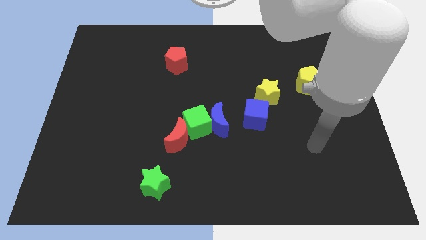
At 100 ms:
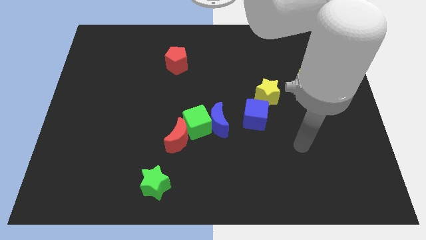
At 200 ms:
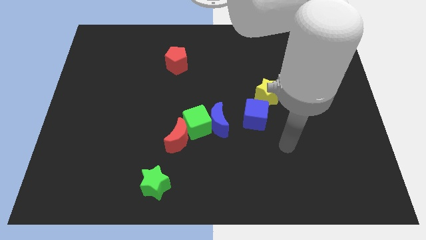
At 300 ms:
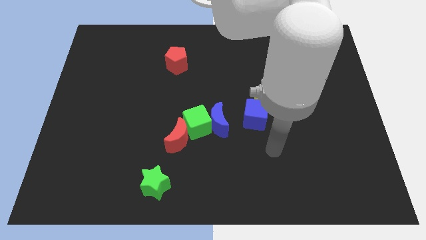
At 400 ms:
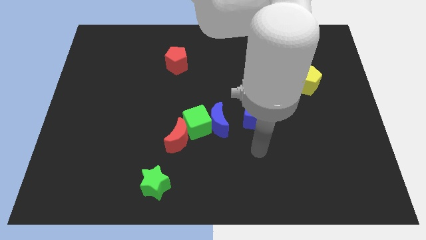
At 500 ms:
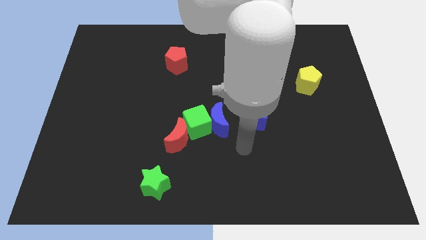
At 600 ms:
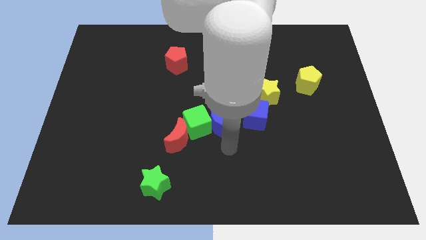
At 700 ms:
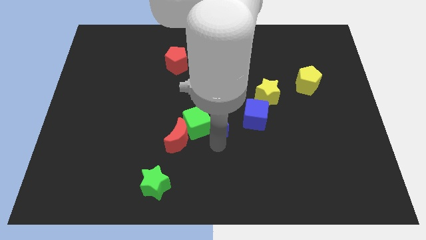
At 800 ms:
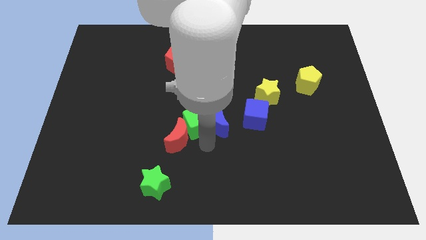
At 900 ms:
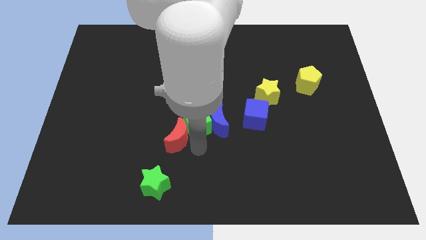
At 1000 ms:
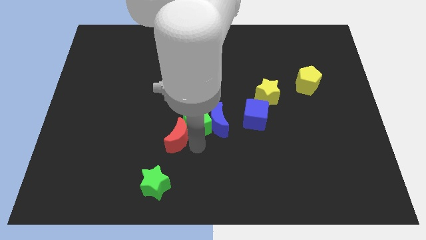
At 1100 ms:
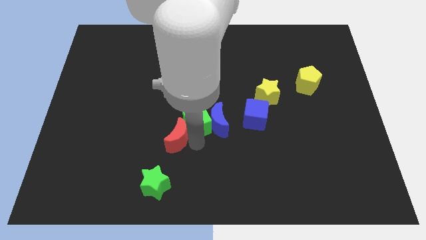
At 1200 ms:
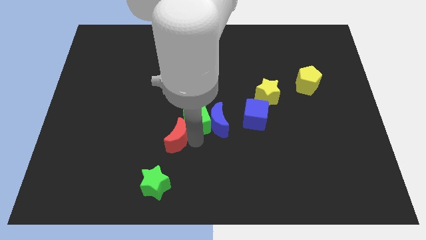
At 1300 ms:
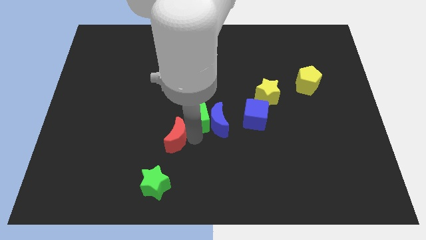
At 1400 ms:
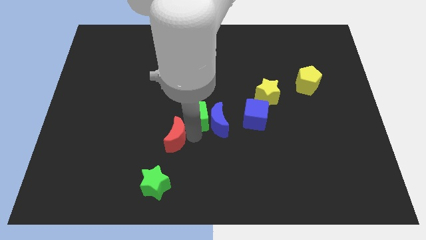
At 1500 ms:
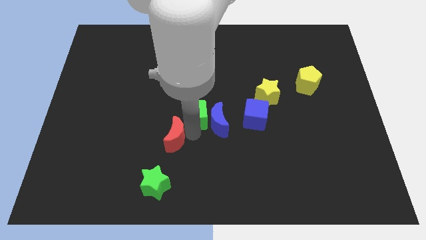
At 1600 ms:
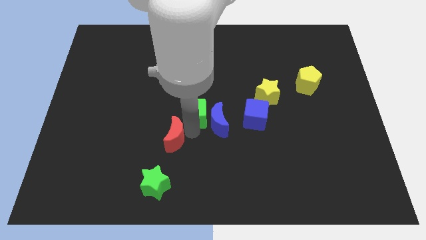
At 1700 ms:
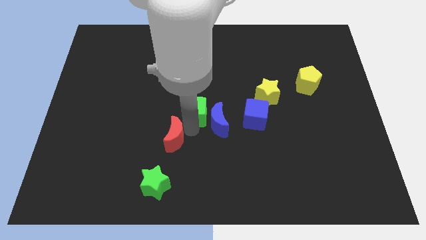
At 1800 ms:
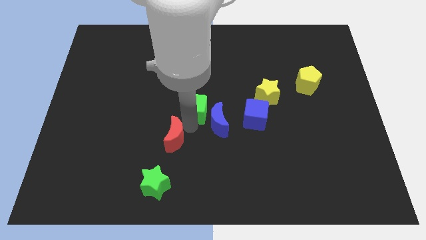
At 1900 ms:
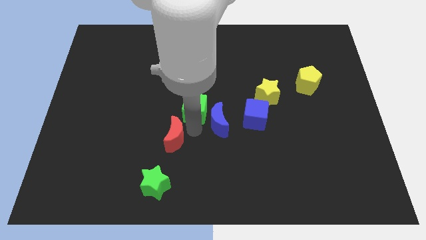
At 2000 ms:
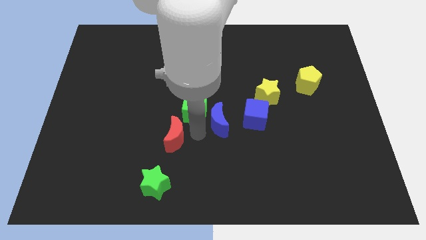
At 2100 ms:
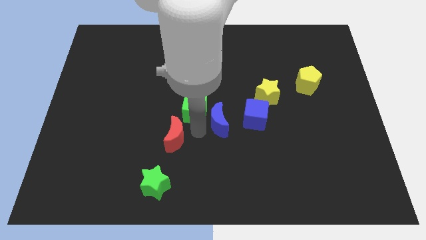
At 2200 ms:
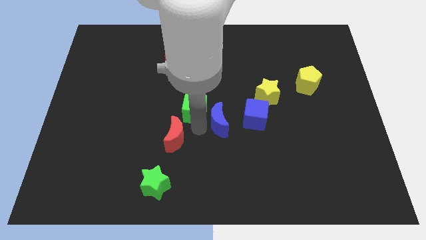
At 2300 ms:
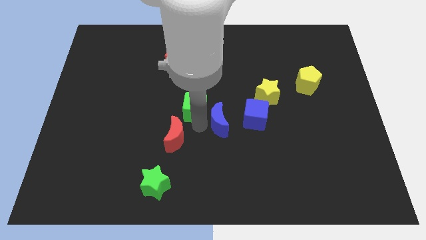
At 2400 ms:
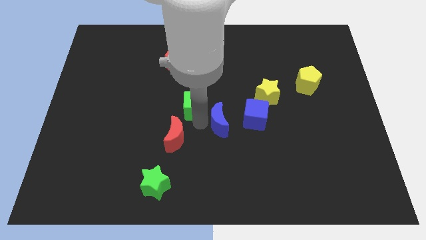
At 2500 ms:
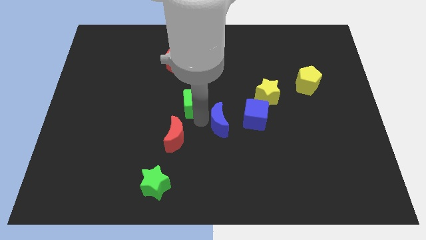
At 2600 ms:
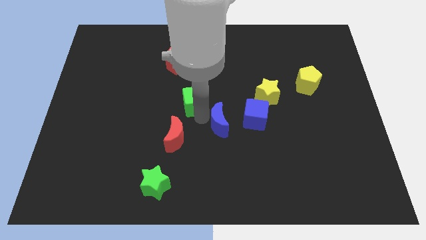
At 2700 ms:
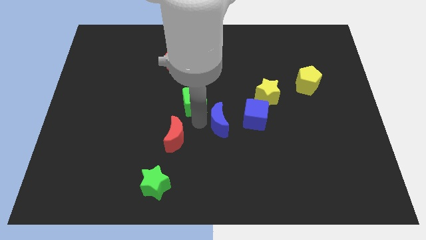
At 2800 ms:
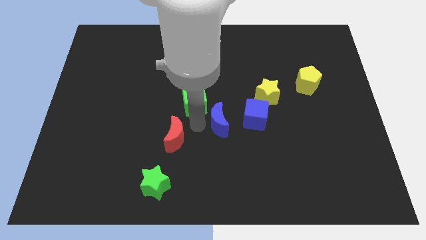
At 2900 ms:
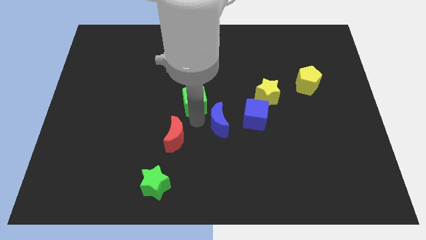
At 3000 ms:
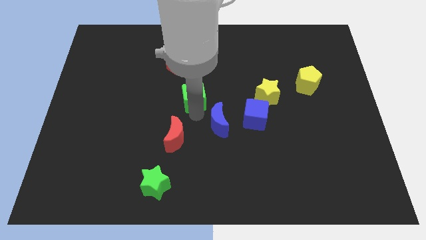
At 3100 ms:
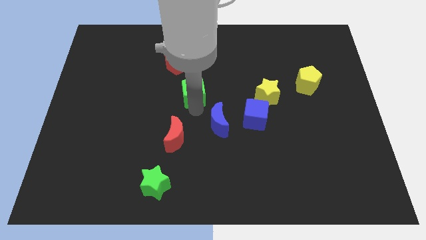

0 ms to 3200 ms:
move the green cube away from the blue moon and red moon

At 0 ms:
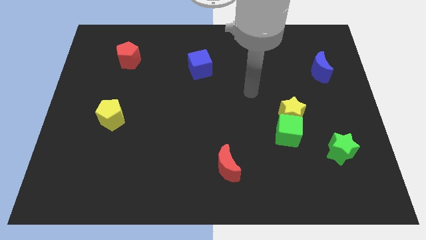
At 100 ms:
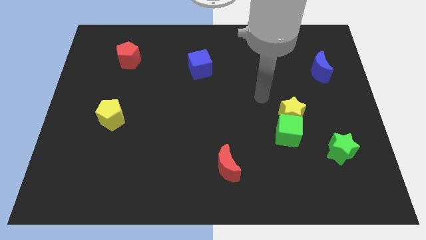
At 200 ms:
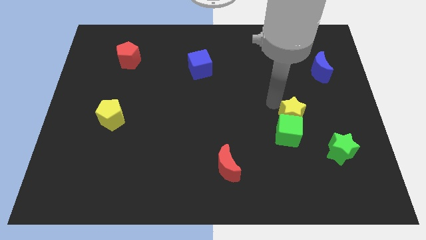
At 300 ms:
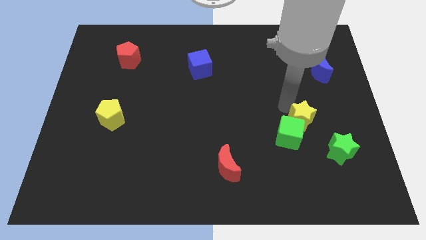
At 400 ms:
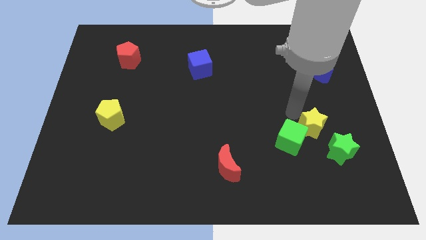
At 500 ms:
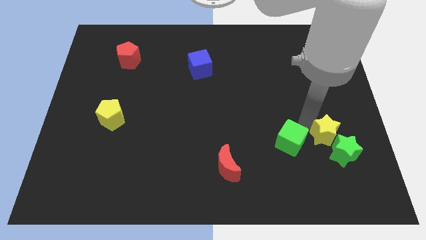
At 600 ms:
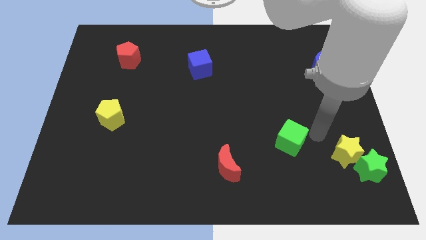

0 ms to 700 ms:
move the green cube away from the yellow star

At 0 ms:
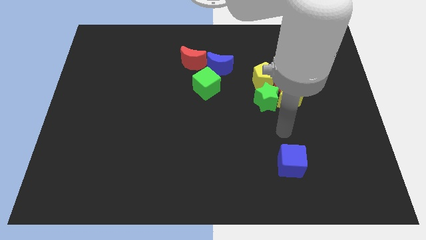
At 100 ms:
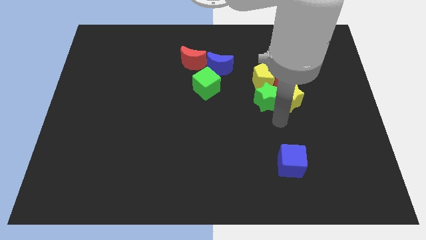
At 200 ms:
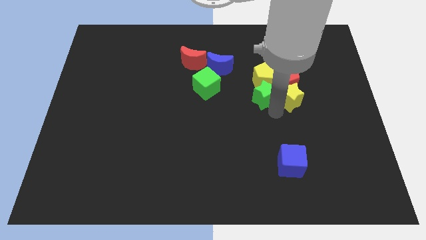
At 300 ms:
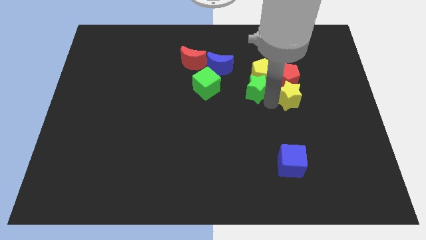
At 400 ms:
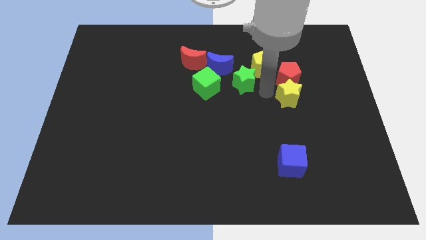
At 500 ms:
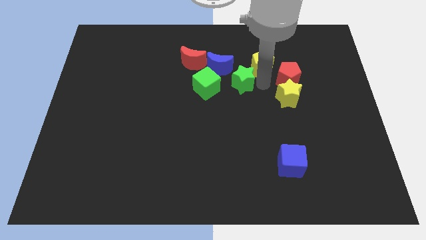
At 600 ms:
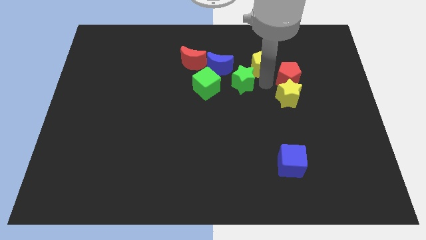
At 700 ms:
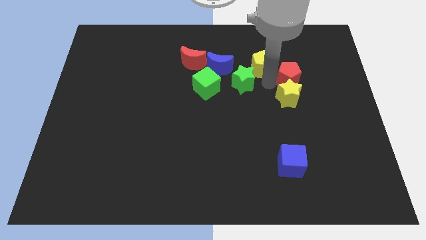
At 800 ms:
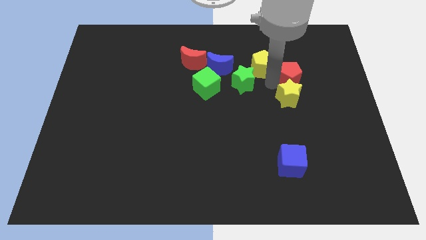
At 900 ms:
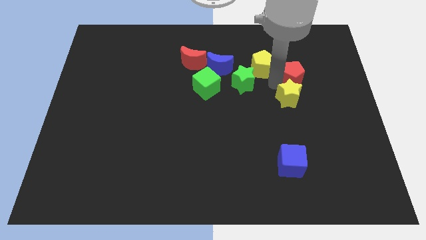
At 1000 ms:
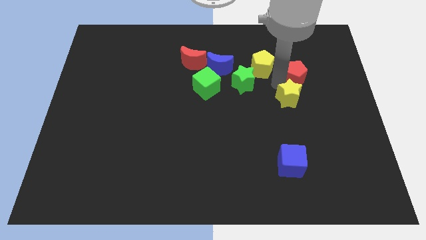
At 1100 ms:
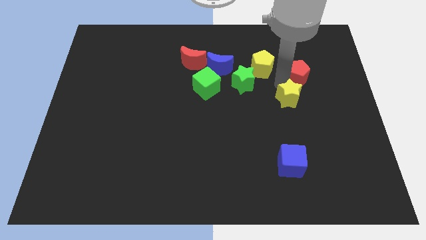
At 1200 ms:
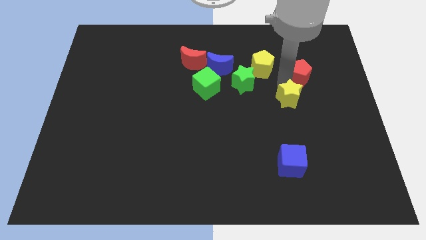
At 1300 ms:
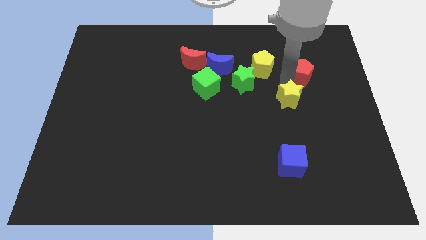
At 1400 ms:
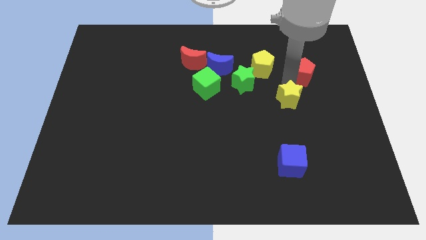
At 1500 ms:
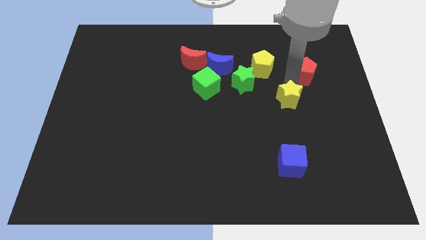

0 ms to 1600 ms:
move the red pentagon away from the yellow star, yellow pentagon, and green star

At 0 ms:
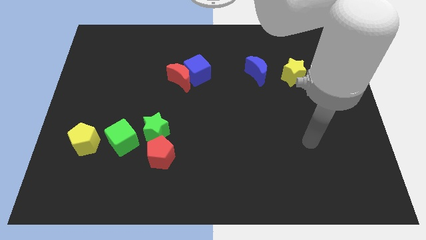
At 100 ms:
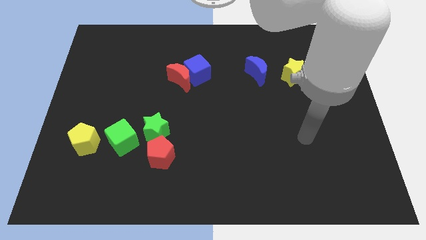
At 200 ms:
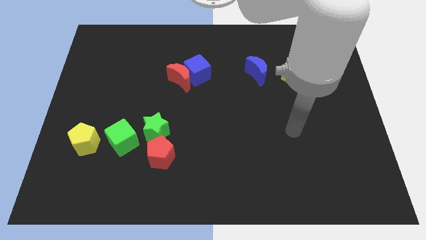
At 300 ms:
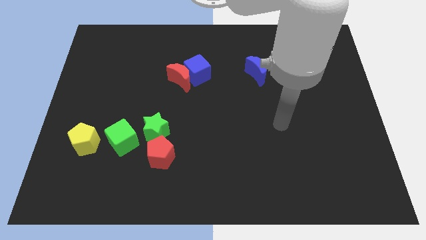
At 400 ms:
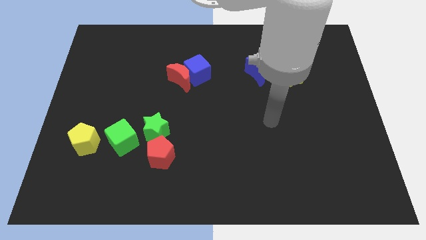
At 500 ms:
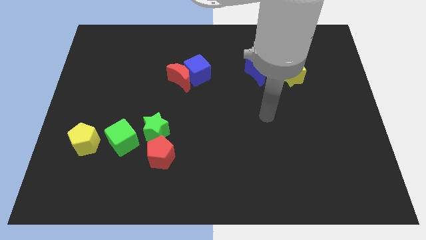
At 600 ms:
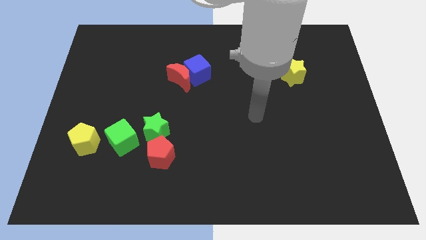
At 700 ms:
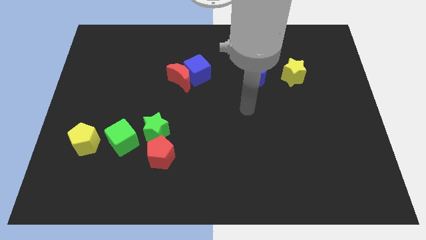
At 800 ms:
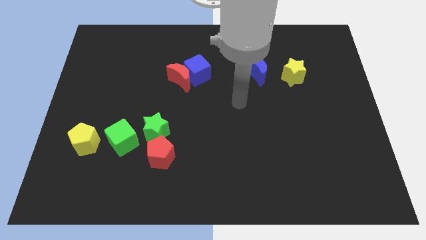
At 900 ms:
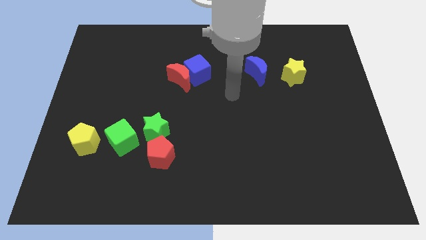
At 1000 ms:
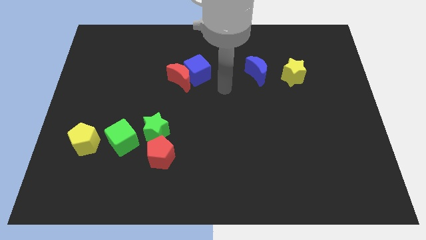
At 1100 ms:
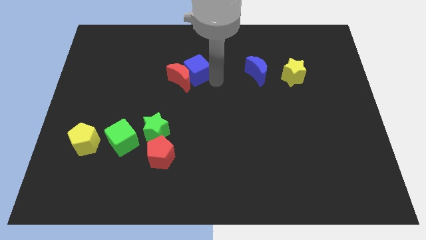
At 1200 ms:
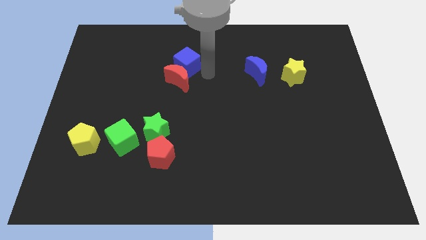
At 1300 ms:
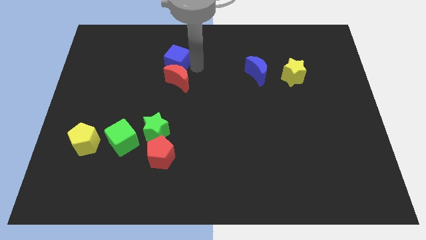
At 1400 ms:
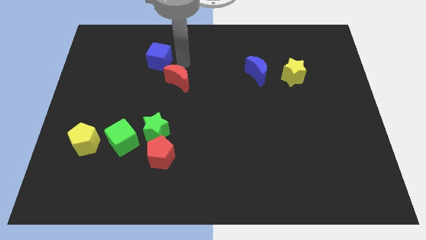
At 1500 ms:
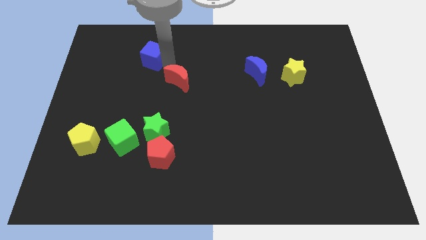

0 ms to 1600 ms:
move the red moon away from the blue cube

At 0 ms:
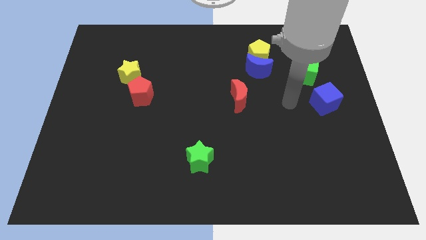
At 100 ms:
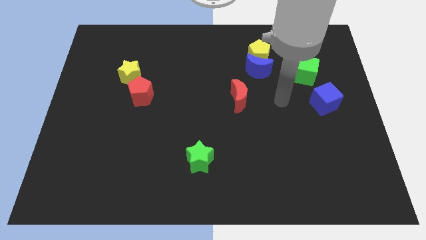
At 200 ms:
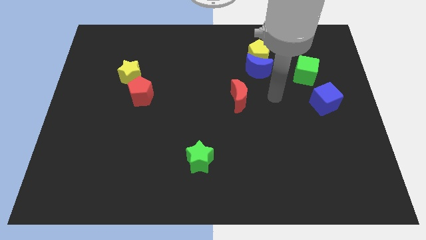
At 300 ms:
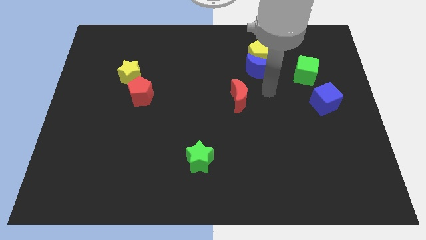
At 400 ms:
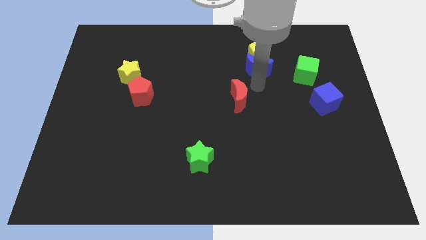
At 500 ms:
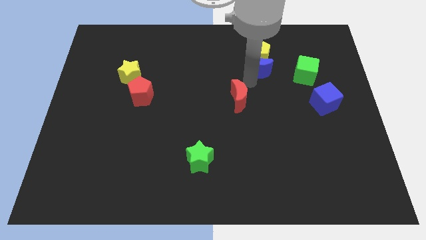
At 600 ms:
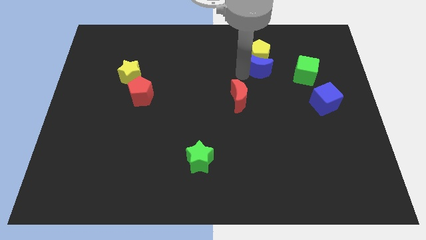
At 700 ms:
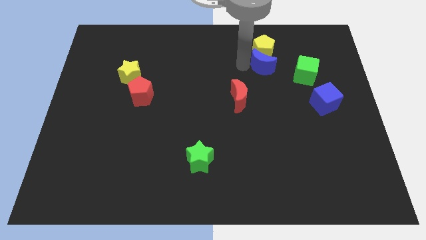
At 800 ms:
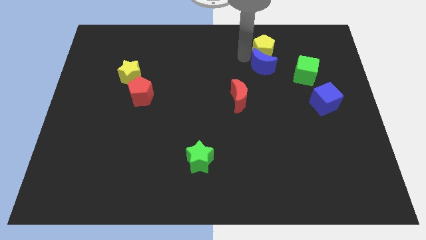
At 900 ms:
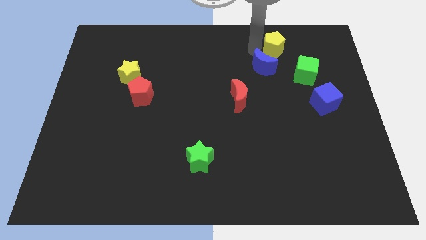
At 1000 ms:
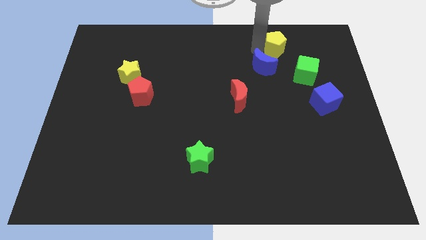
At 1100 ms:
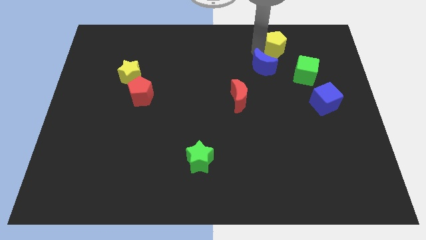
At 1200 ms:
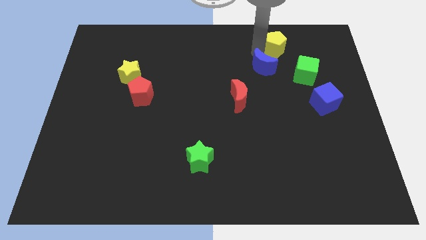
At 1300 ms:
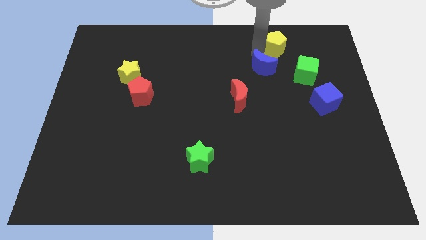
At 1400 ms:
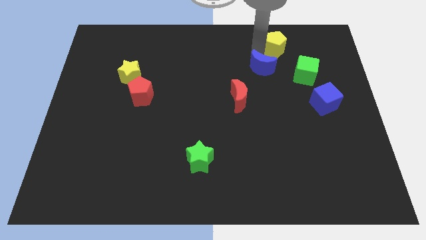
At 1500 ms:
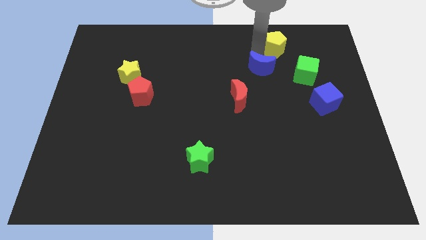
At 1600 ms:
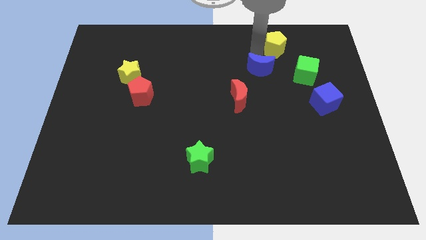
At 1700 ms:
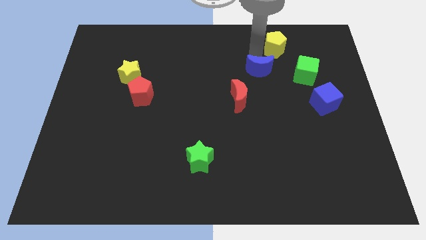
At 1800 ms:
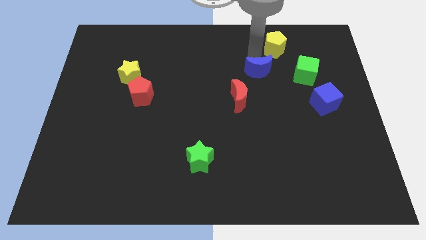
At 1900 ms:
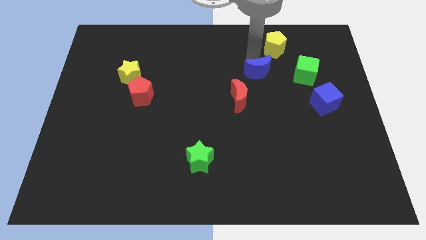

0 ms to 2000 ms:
separate the blue moon from the yellow pentagon

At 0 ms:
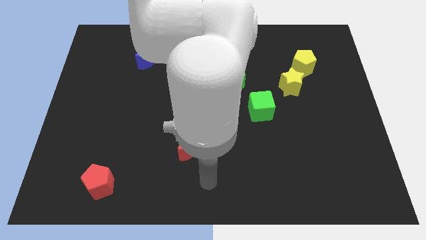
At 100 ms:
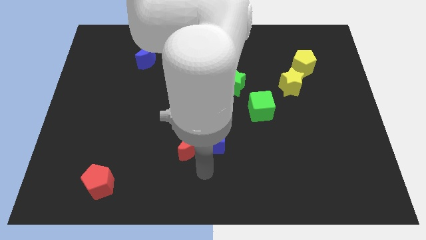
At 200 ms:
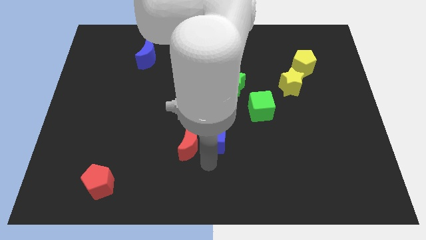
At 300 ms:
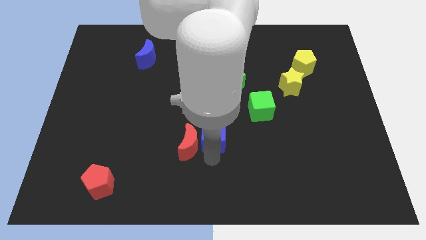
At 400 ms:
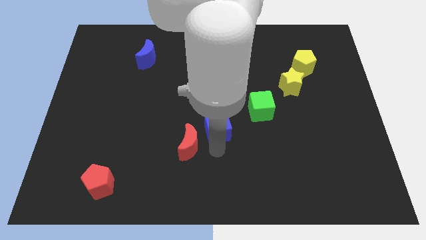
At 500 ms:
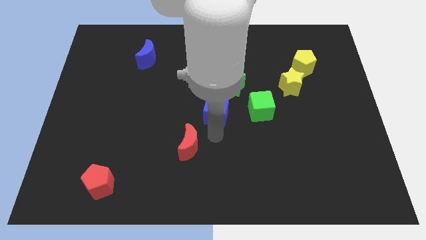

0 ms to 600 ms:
pull the red moon apart from the blue cube
